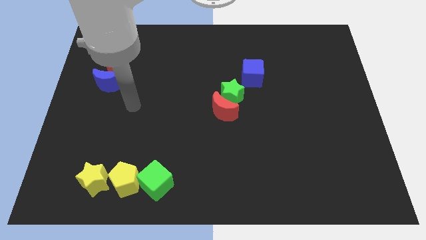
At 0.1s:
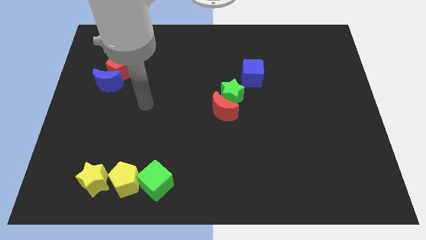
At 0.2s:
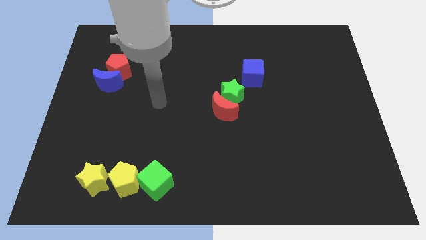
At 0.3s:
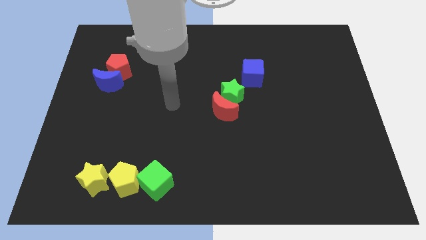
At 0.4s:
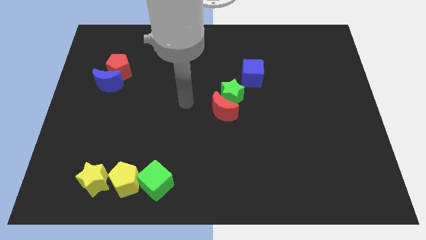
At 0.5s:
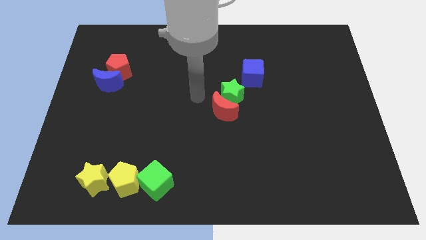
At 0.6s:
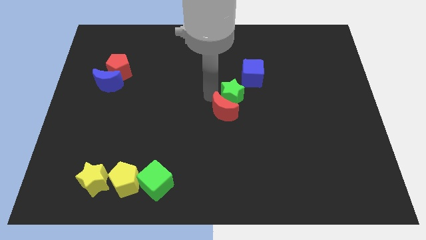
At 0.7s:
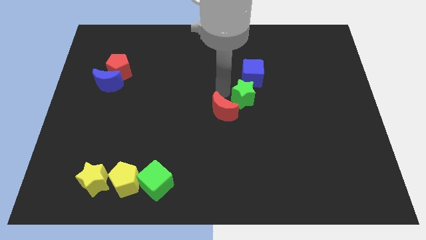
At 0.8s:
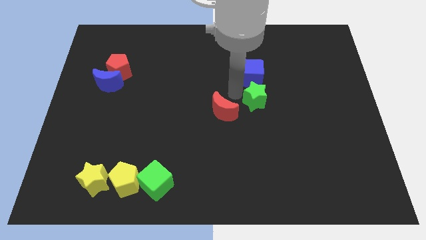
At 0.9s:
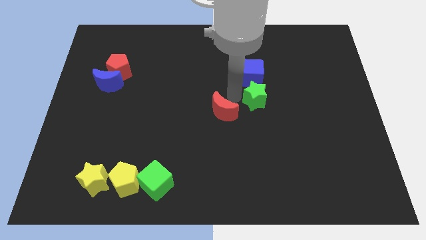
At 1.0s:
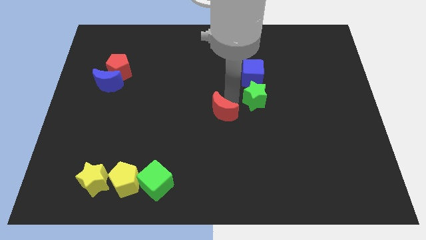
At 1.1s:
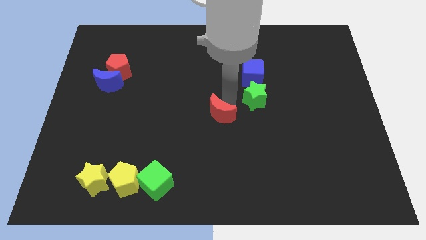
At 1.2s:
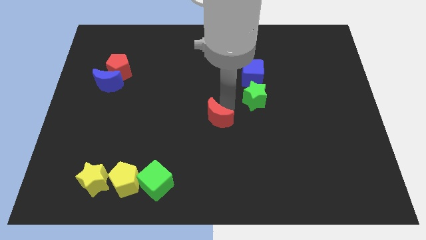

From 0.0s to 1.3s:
separate the red moon from the green star

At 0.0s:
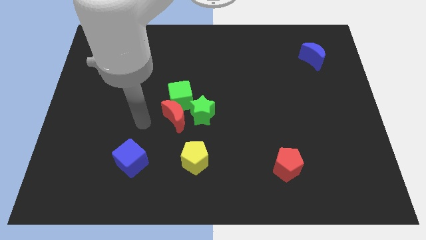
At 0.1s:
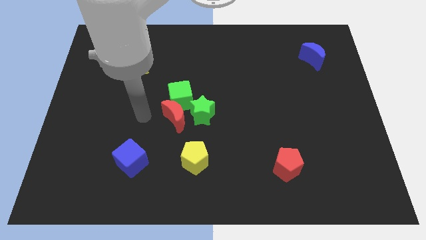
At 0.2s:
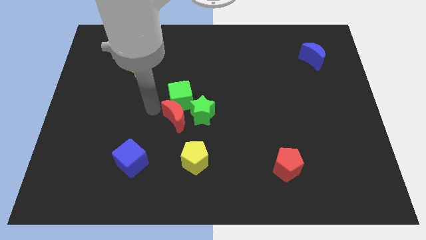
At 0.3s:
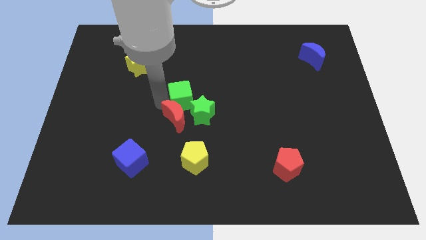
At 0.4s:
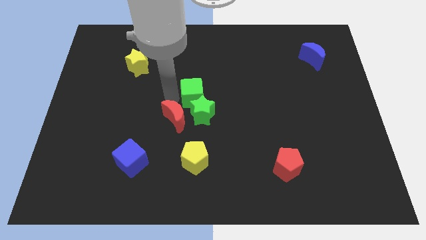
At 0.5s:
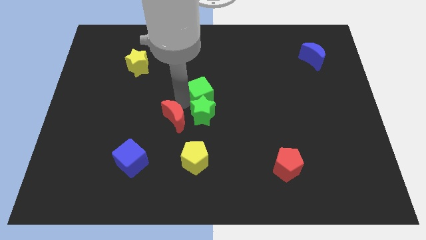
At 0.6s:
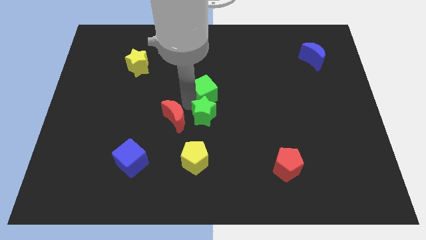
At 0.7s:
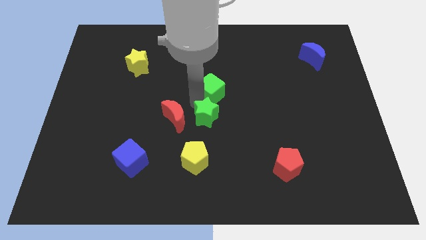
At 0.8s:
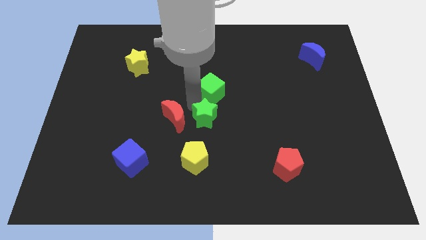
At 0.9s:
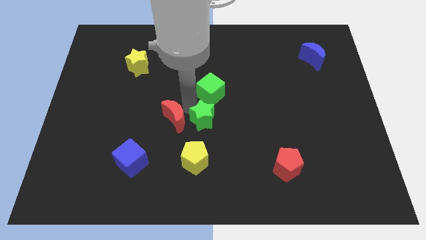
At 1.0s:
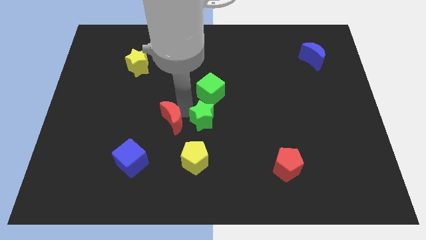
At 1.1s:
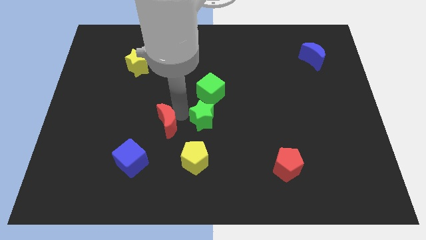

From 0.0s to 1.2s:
pull the red moon apart from the green cube and green star

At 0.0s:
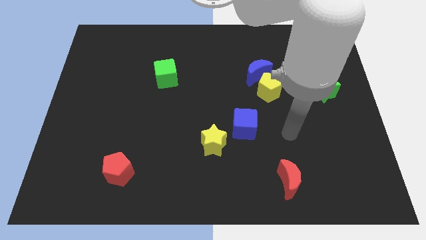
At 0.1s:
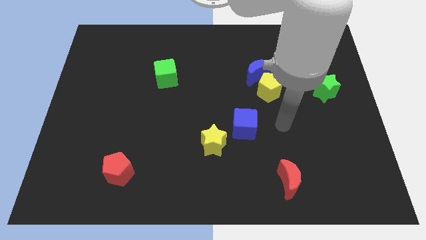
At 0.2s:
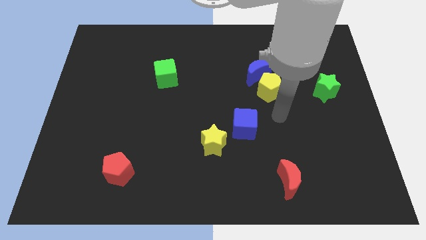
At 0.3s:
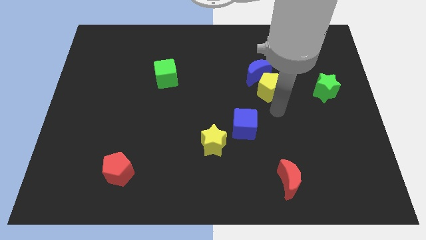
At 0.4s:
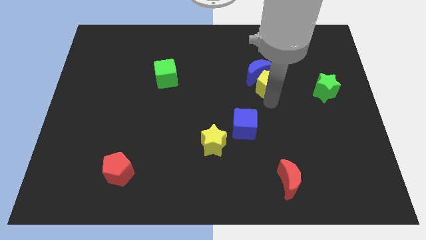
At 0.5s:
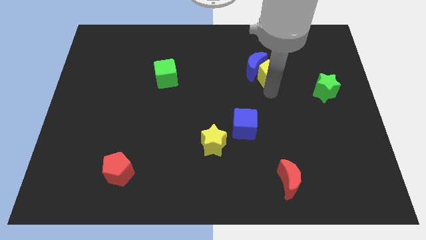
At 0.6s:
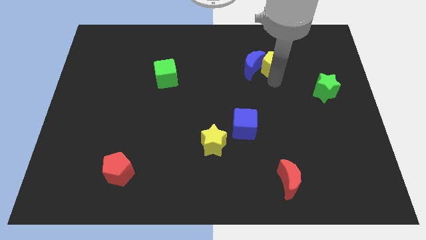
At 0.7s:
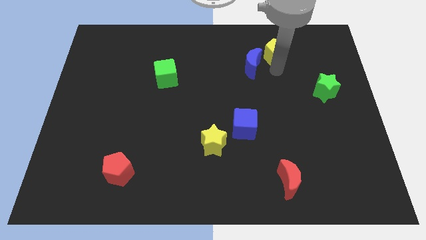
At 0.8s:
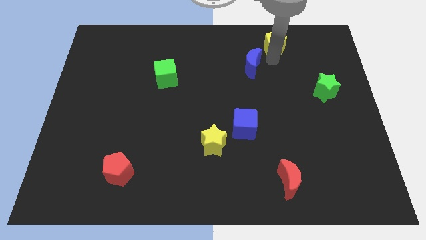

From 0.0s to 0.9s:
move the blue moon away from the yellow pentagon

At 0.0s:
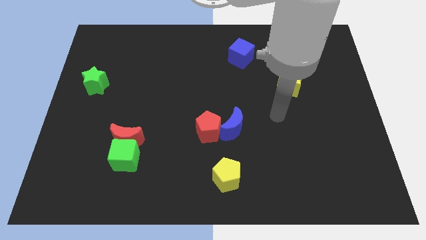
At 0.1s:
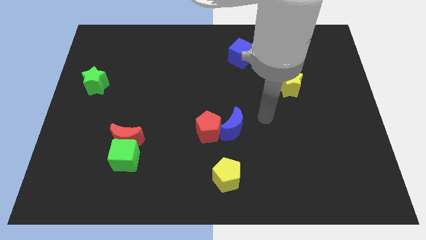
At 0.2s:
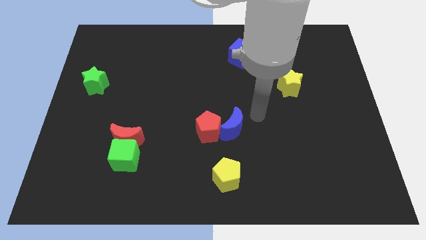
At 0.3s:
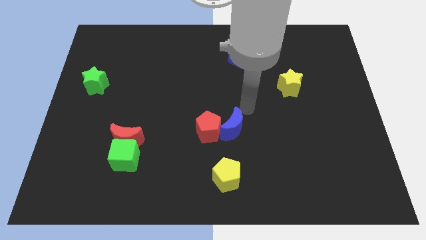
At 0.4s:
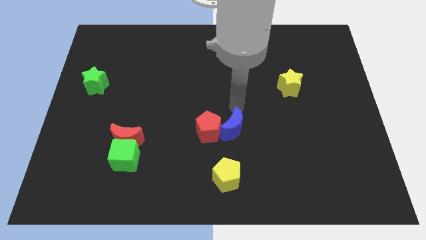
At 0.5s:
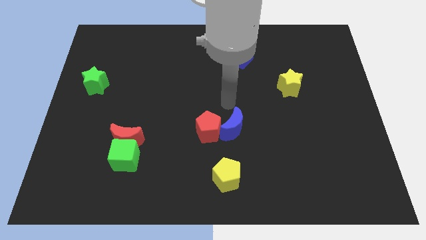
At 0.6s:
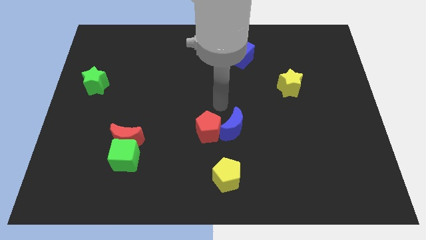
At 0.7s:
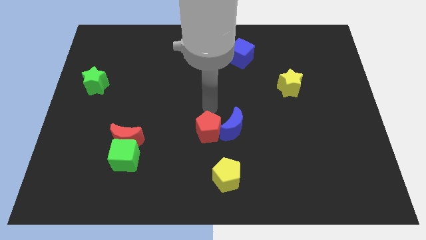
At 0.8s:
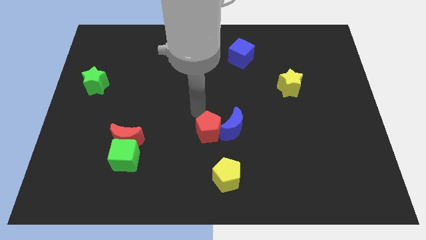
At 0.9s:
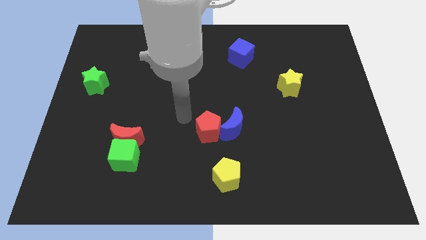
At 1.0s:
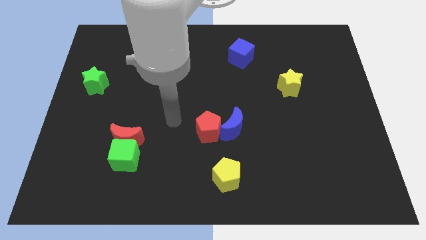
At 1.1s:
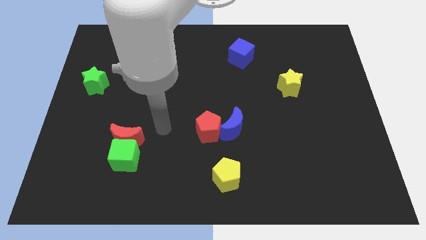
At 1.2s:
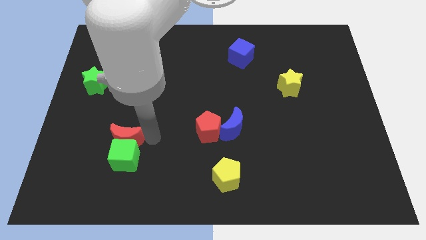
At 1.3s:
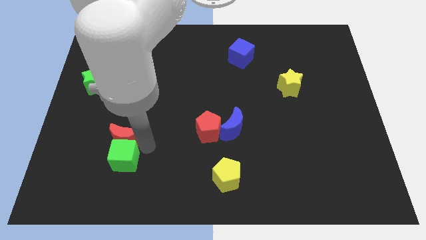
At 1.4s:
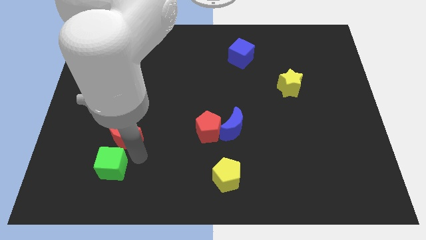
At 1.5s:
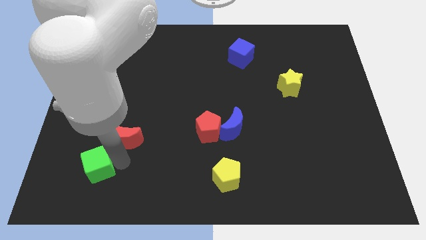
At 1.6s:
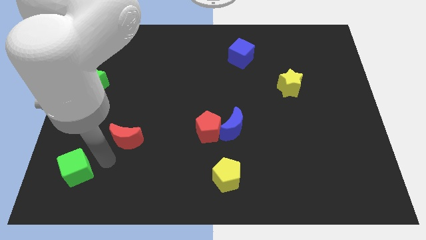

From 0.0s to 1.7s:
pull the red moon apart from the green cube

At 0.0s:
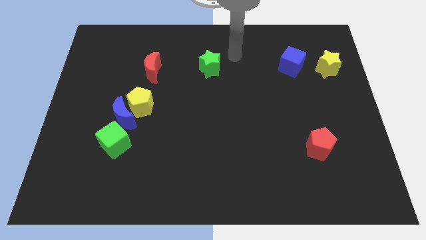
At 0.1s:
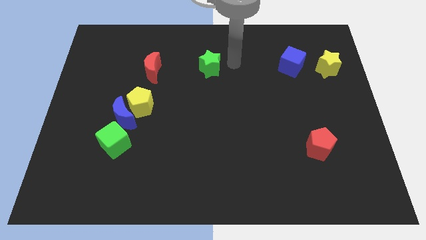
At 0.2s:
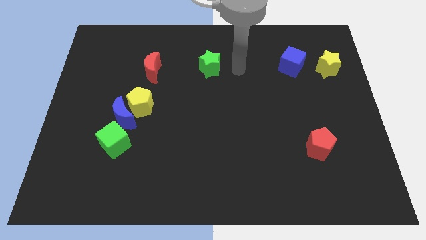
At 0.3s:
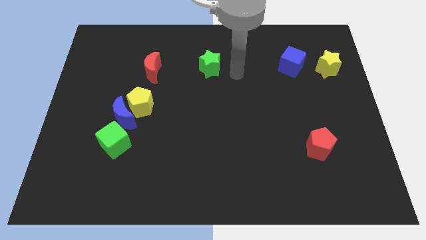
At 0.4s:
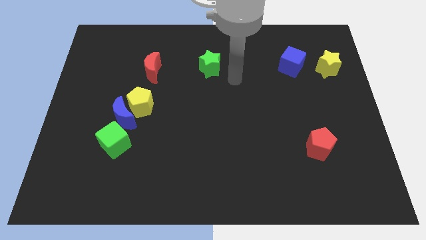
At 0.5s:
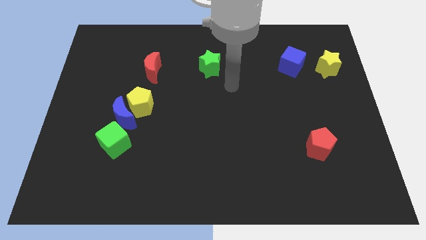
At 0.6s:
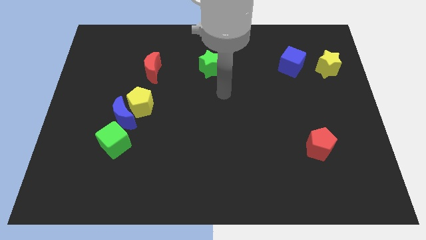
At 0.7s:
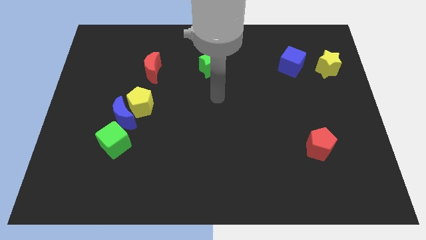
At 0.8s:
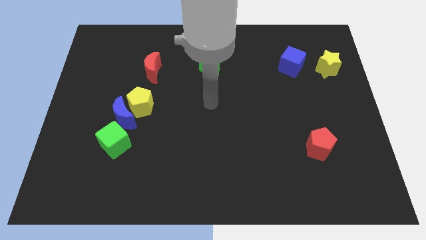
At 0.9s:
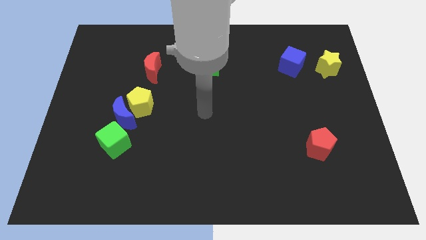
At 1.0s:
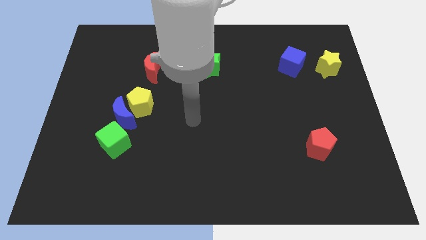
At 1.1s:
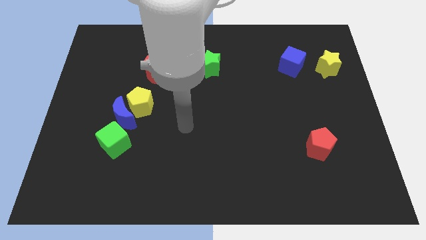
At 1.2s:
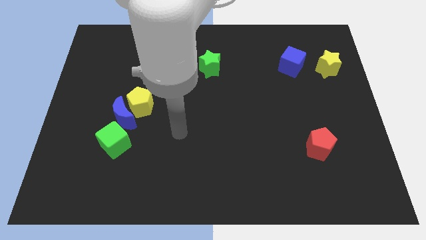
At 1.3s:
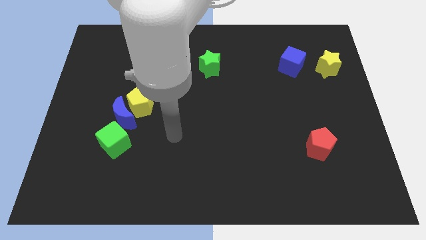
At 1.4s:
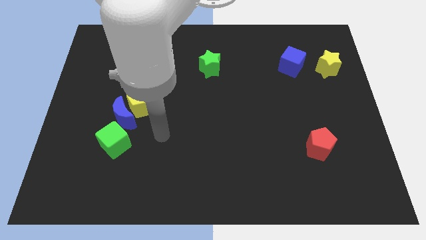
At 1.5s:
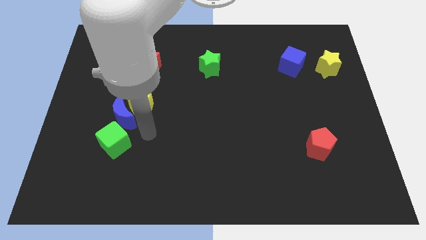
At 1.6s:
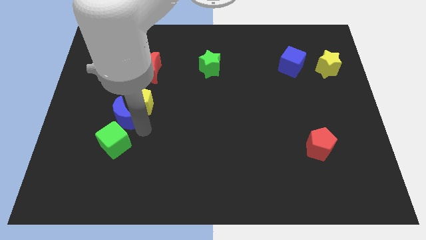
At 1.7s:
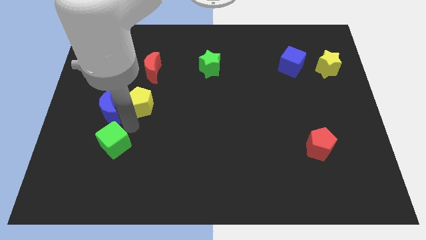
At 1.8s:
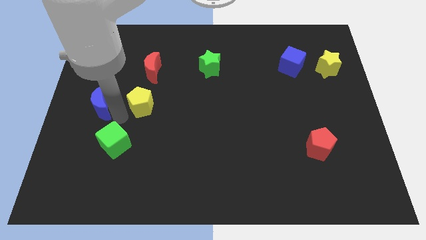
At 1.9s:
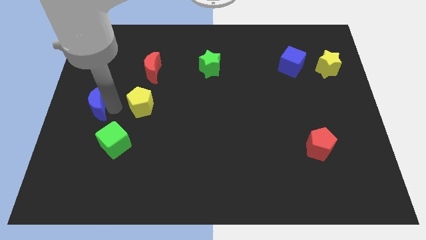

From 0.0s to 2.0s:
pull the yellow pentagon apart from the blue moon

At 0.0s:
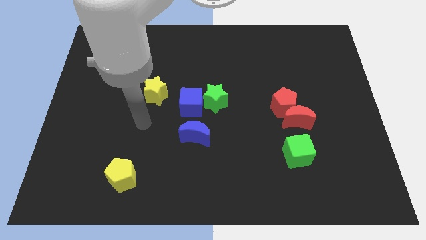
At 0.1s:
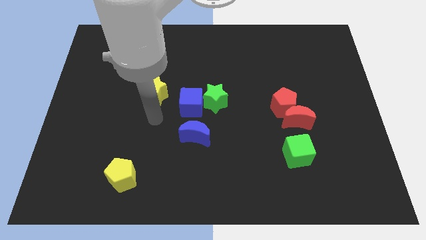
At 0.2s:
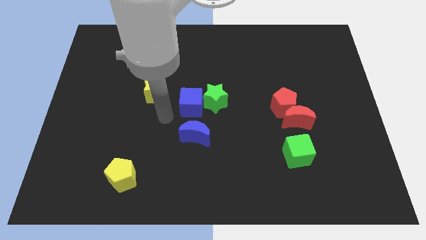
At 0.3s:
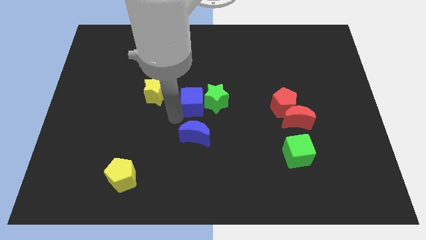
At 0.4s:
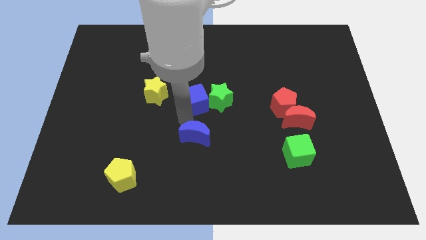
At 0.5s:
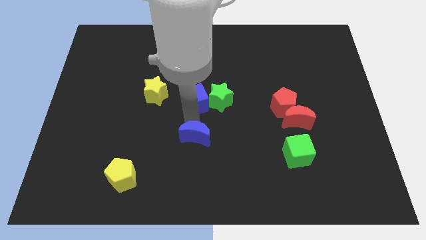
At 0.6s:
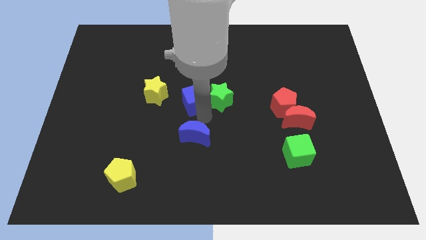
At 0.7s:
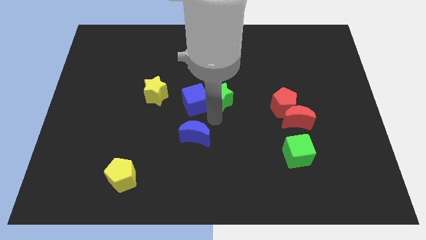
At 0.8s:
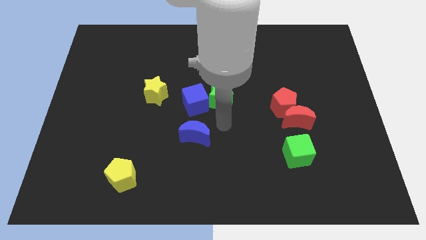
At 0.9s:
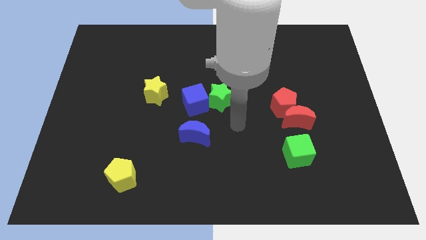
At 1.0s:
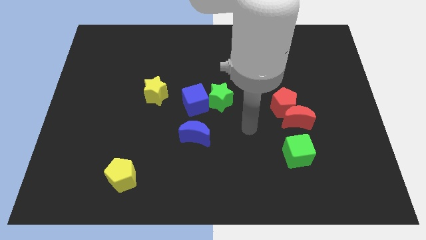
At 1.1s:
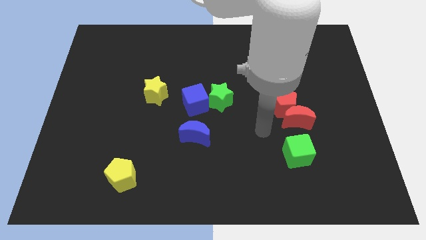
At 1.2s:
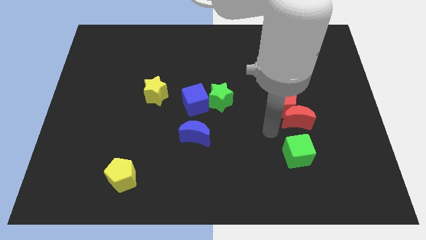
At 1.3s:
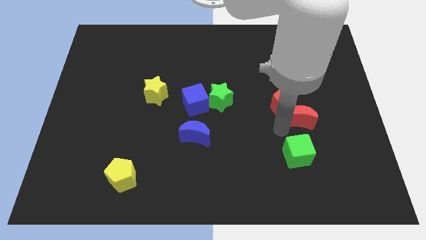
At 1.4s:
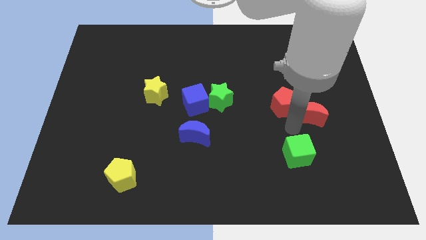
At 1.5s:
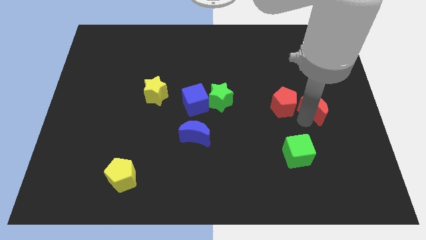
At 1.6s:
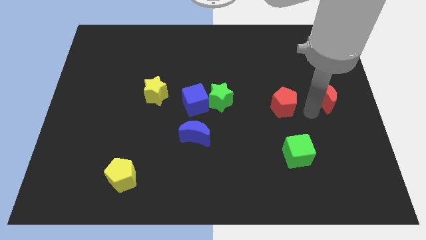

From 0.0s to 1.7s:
separate the red pentagon from the red moon

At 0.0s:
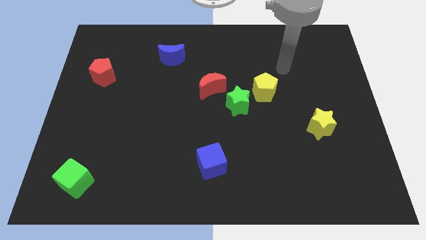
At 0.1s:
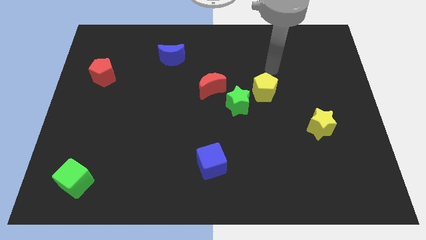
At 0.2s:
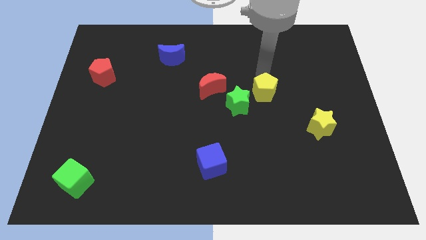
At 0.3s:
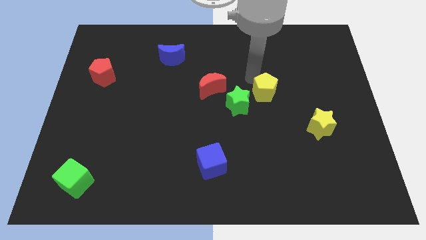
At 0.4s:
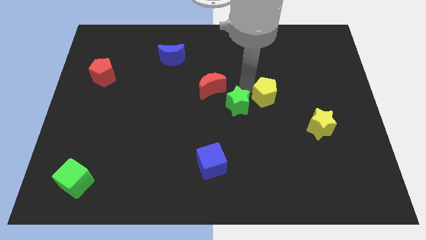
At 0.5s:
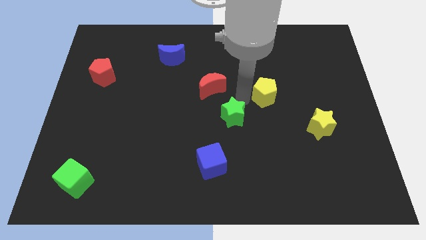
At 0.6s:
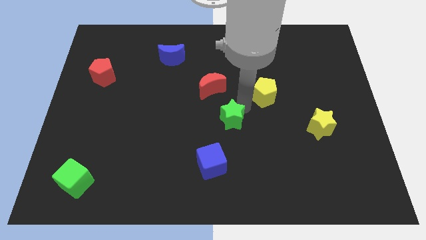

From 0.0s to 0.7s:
move the yellow pentagon away from the green star
